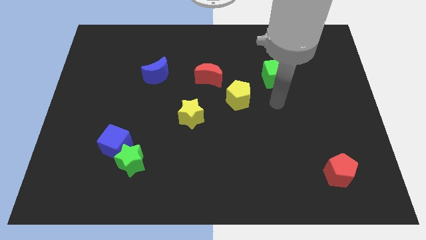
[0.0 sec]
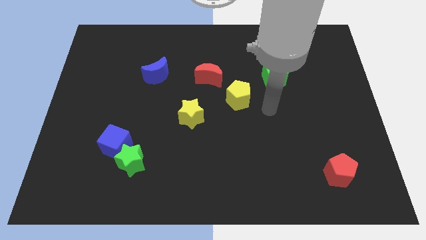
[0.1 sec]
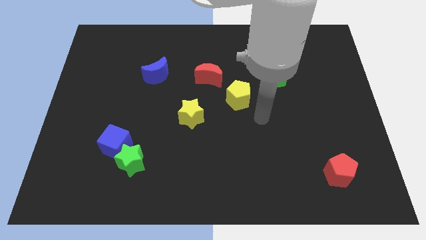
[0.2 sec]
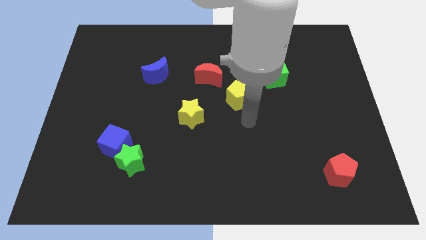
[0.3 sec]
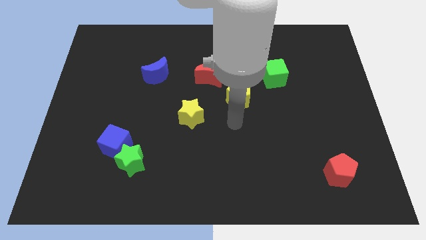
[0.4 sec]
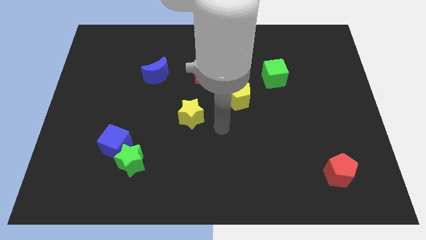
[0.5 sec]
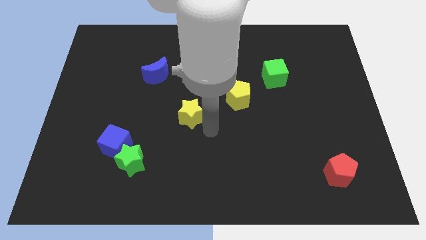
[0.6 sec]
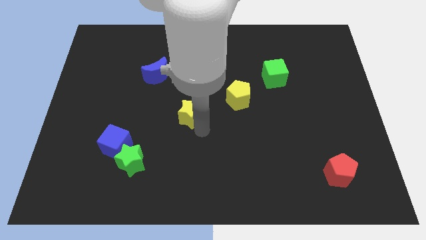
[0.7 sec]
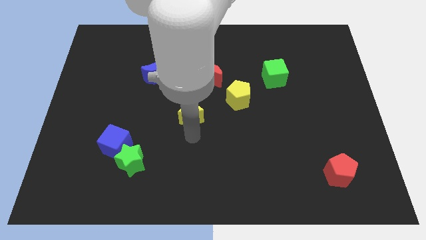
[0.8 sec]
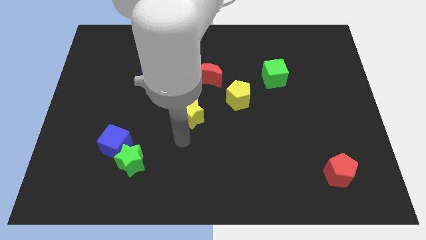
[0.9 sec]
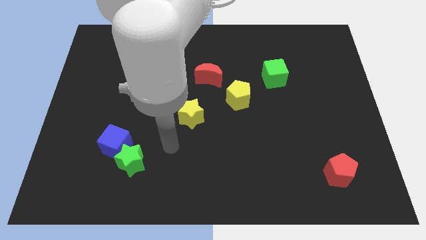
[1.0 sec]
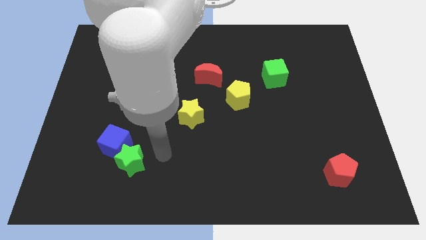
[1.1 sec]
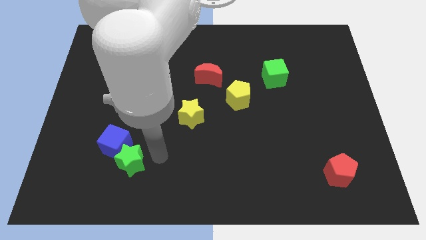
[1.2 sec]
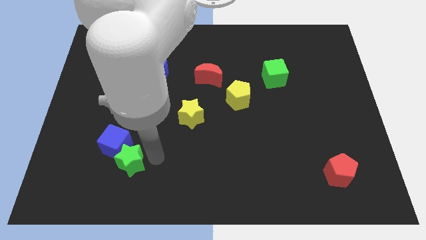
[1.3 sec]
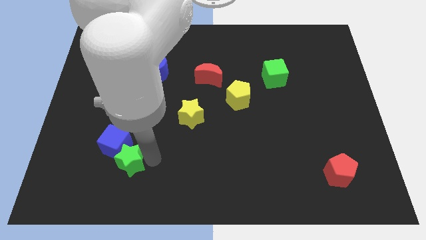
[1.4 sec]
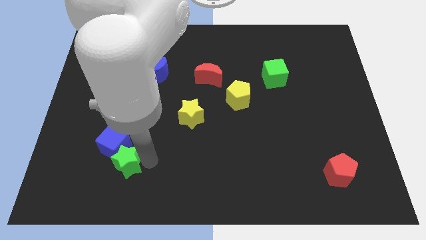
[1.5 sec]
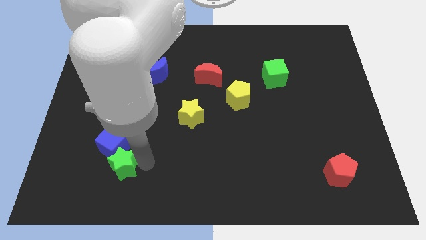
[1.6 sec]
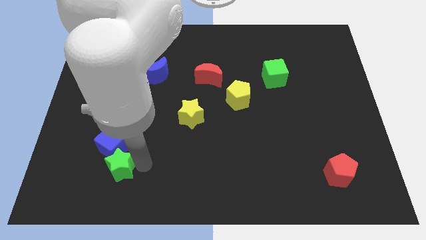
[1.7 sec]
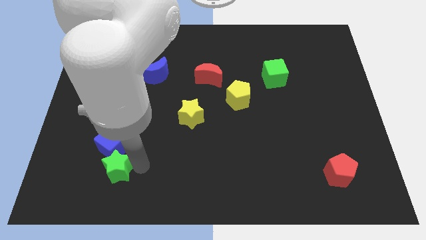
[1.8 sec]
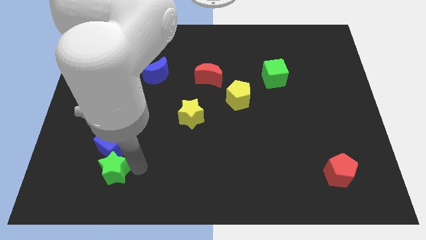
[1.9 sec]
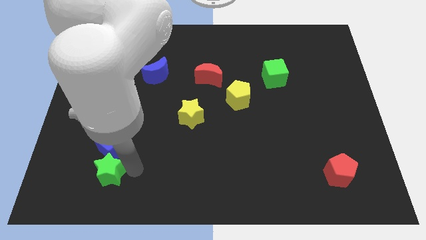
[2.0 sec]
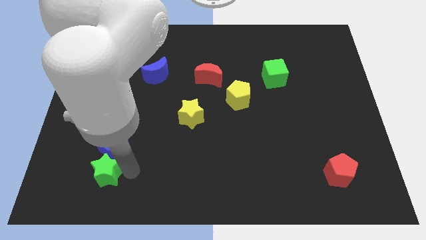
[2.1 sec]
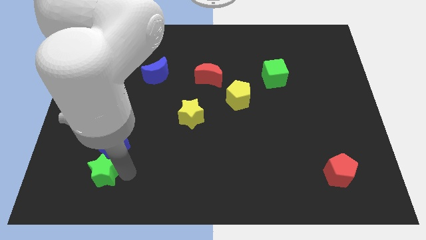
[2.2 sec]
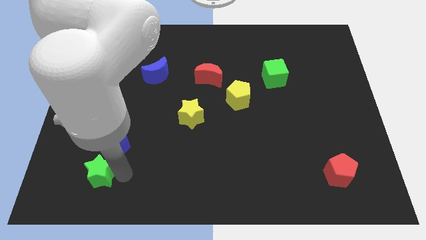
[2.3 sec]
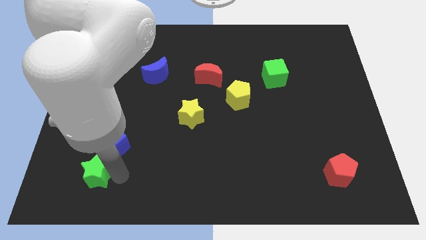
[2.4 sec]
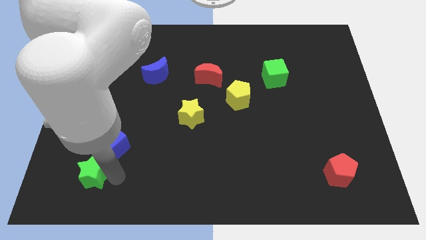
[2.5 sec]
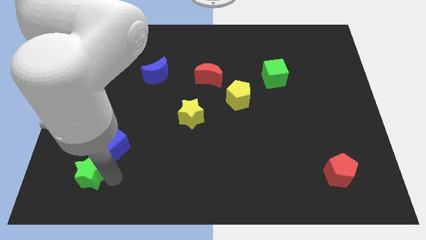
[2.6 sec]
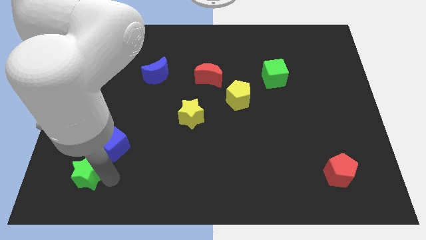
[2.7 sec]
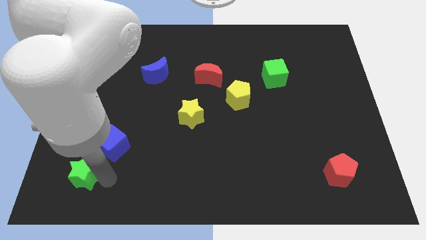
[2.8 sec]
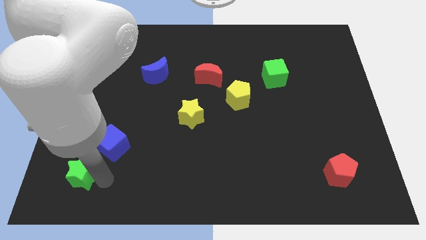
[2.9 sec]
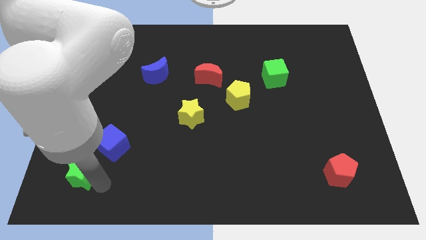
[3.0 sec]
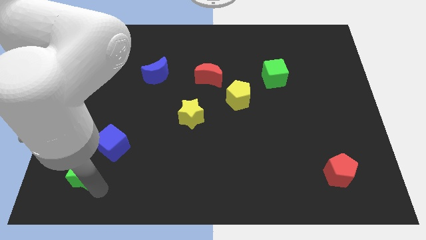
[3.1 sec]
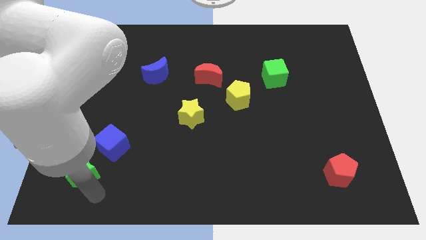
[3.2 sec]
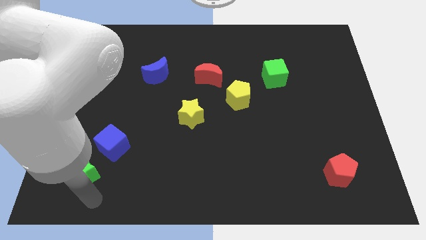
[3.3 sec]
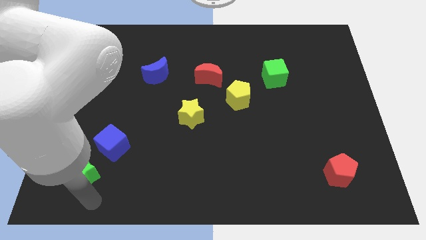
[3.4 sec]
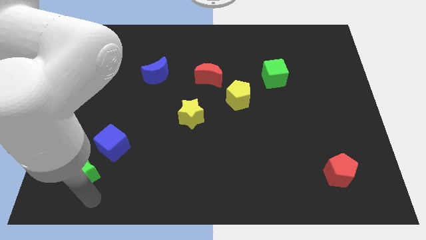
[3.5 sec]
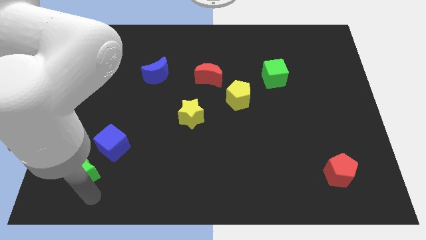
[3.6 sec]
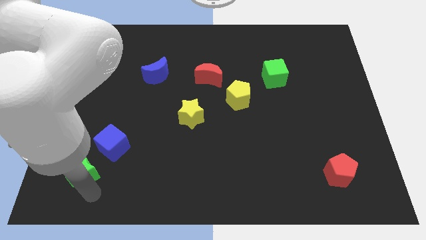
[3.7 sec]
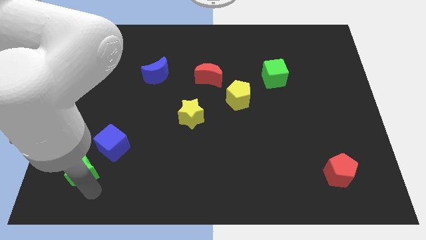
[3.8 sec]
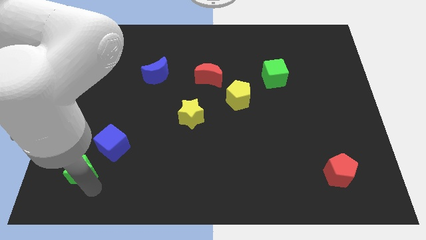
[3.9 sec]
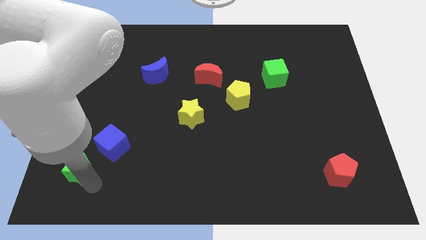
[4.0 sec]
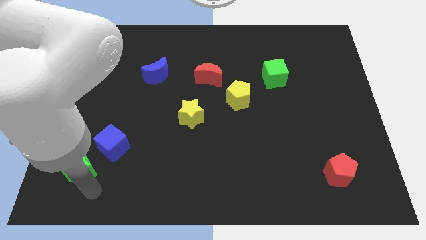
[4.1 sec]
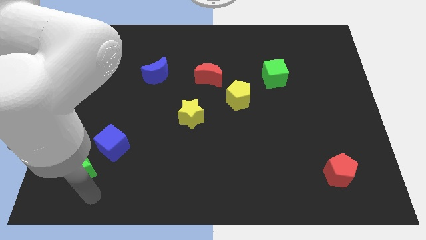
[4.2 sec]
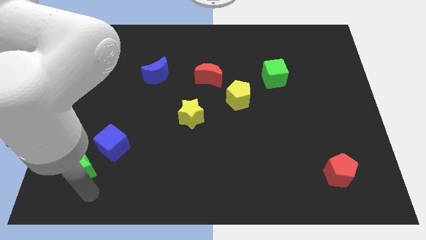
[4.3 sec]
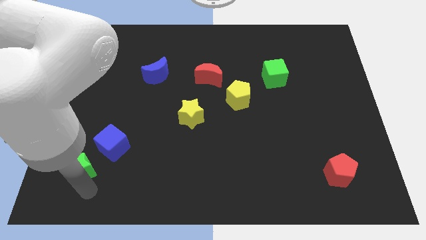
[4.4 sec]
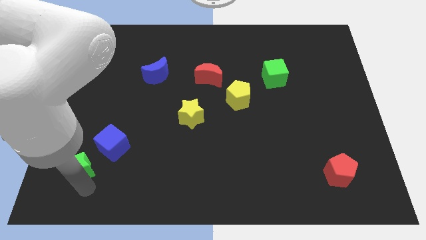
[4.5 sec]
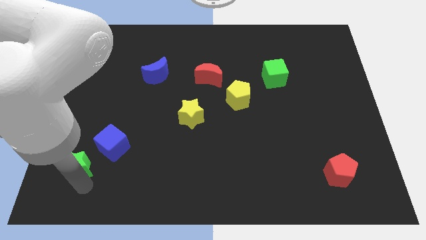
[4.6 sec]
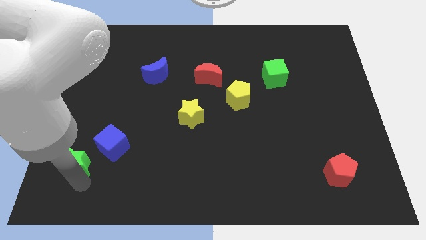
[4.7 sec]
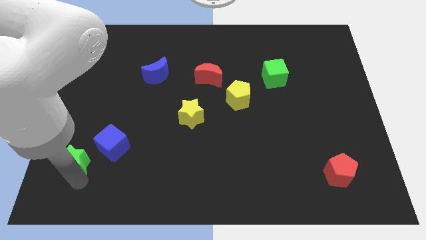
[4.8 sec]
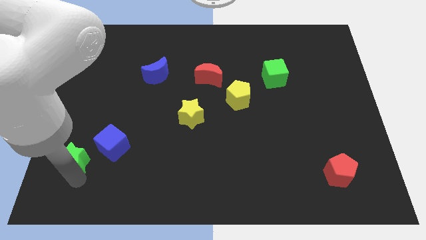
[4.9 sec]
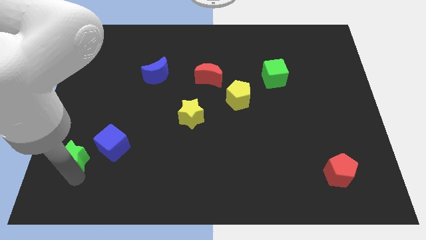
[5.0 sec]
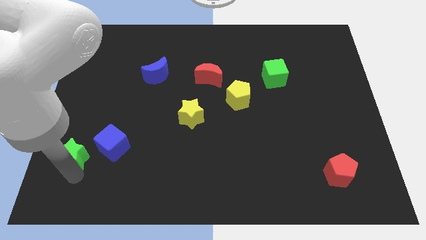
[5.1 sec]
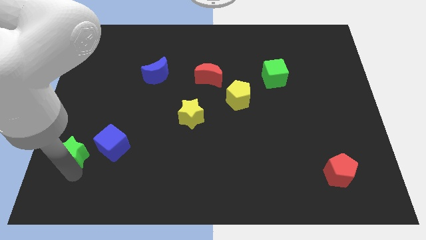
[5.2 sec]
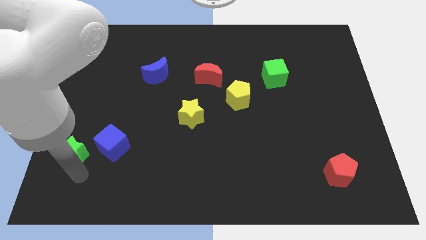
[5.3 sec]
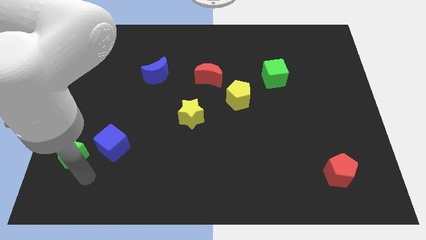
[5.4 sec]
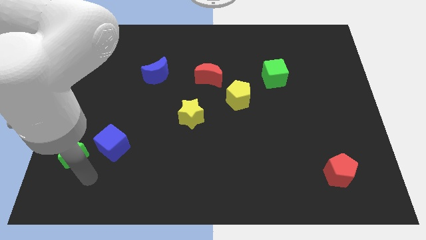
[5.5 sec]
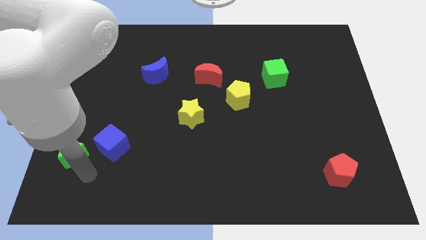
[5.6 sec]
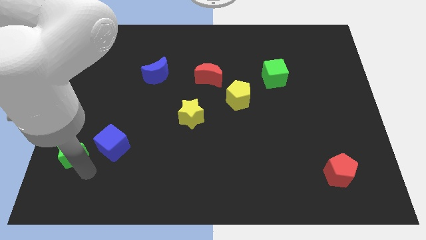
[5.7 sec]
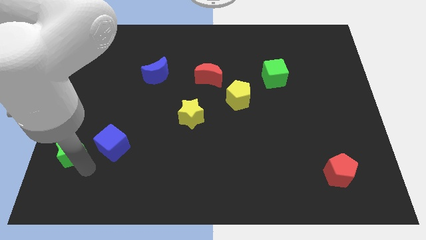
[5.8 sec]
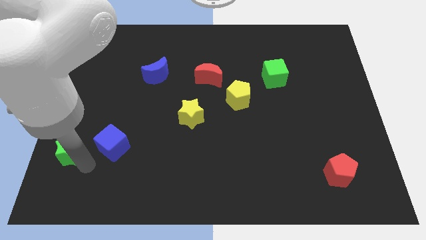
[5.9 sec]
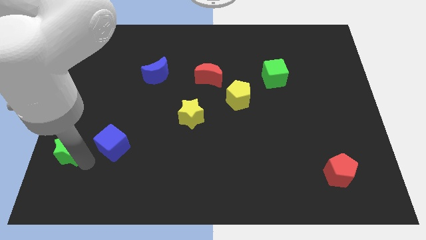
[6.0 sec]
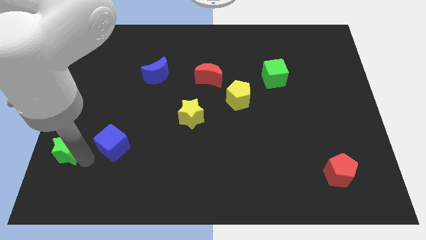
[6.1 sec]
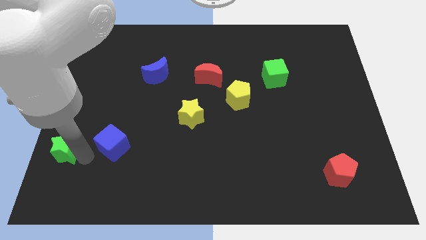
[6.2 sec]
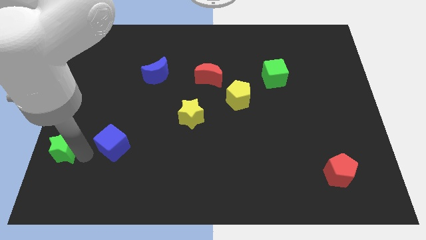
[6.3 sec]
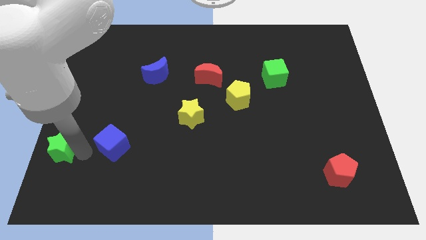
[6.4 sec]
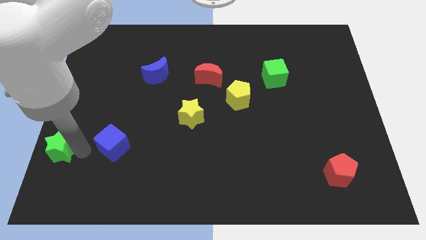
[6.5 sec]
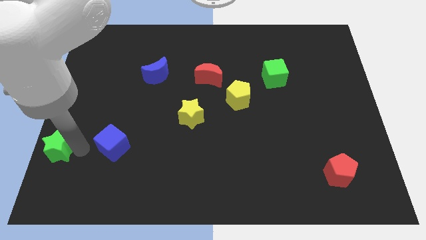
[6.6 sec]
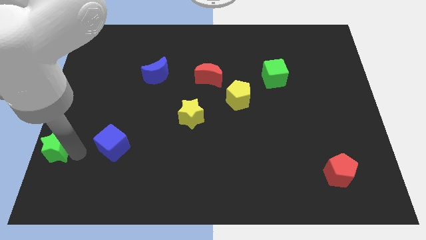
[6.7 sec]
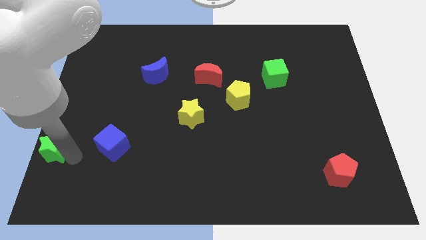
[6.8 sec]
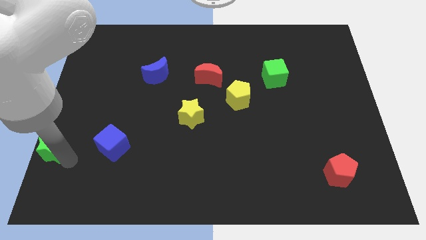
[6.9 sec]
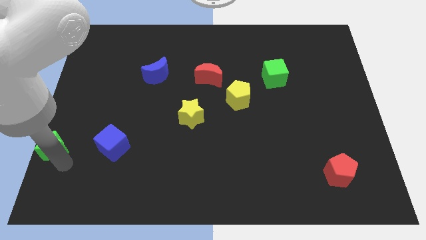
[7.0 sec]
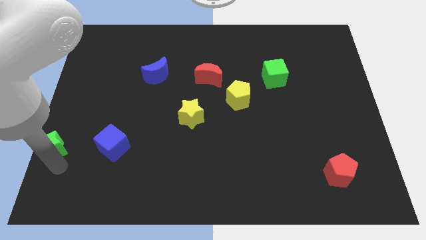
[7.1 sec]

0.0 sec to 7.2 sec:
push the green star to the center left
